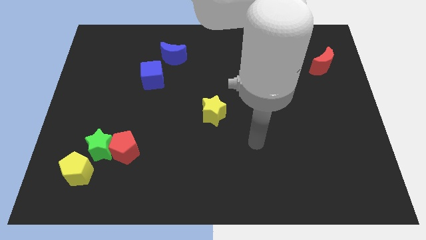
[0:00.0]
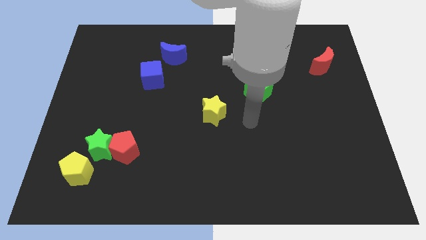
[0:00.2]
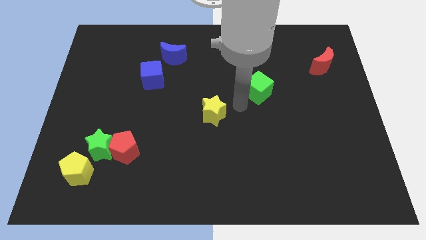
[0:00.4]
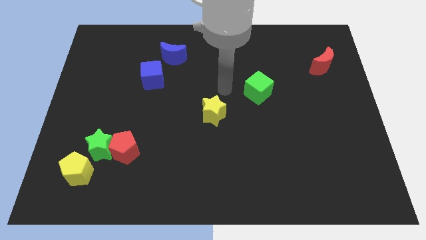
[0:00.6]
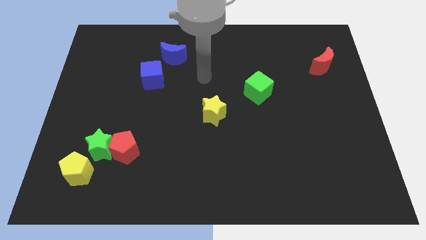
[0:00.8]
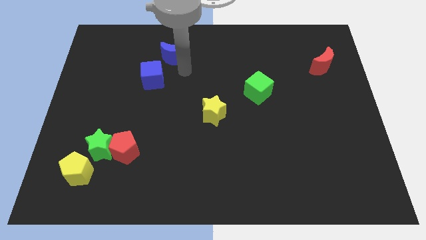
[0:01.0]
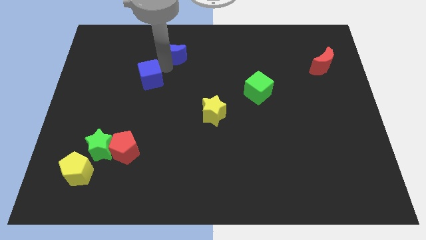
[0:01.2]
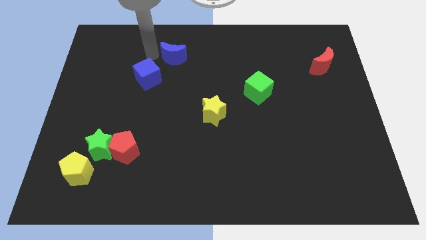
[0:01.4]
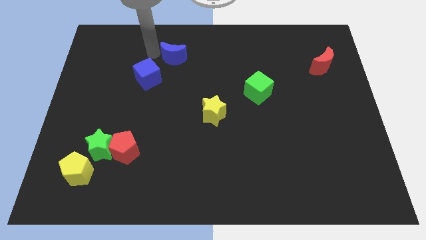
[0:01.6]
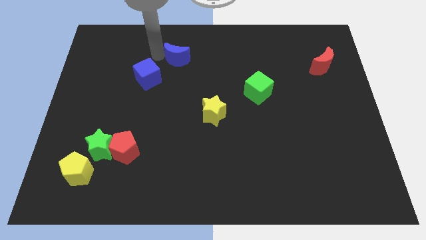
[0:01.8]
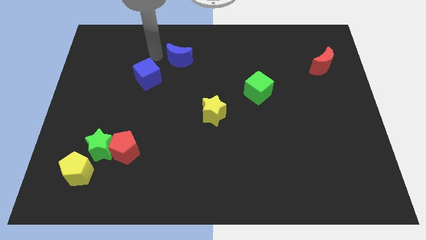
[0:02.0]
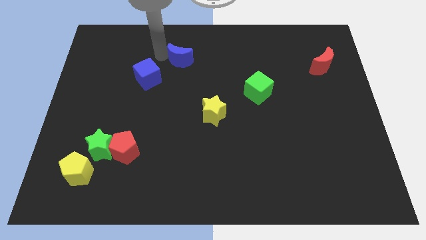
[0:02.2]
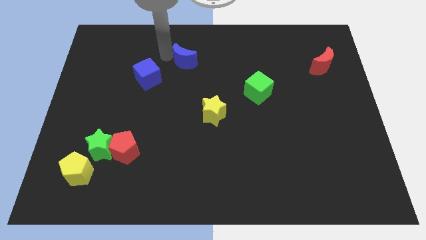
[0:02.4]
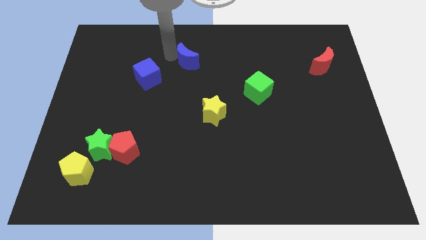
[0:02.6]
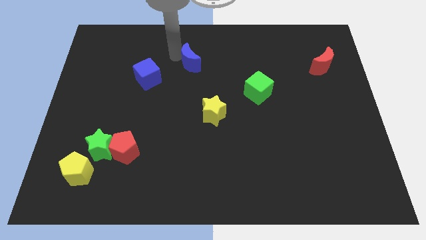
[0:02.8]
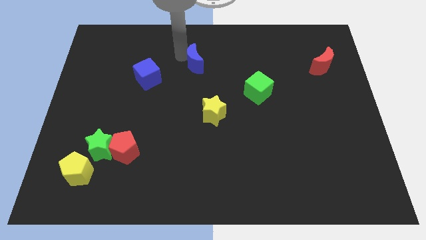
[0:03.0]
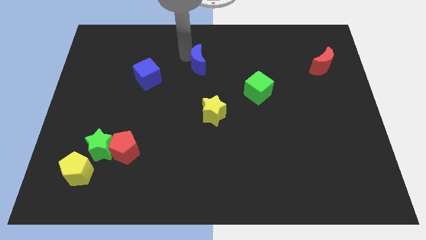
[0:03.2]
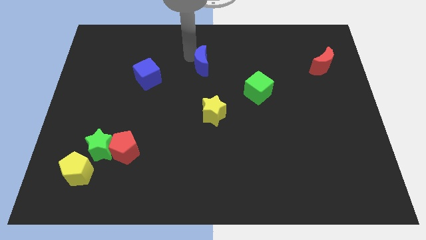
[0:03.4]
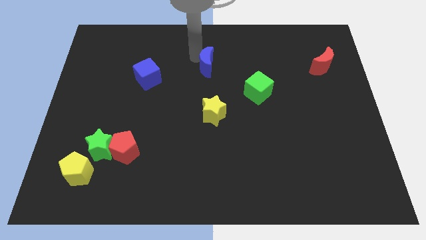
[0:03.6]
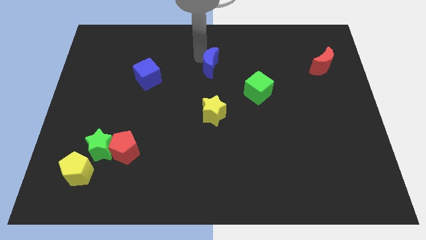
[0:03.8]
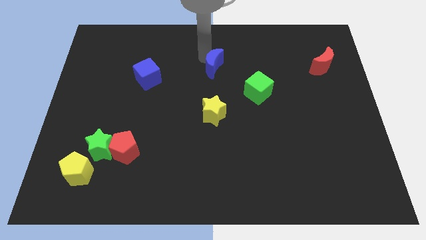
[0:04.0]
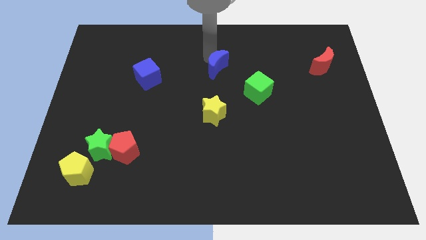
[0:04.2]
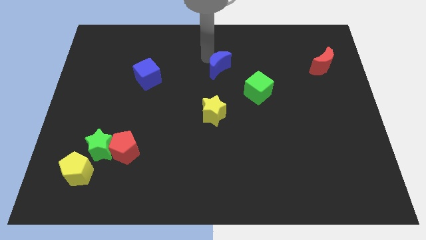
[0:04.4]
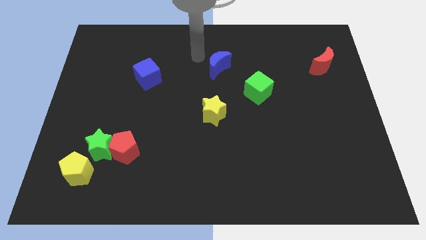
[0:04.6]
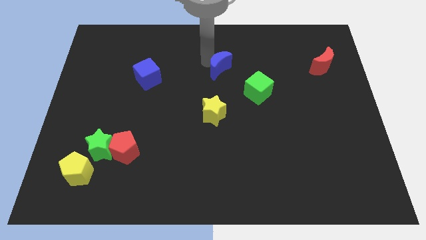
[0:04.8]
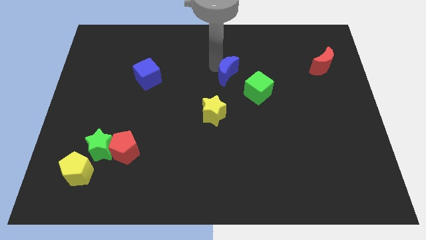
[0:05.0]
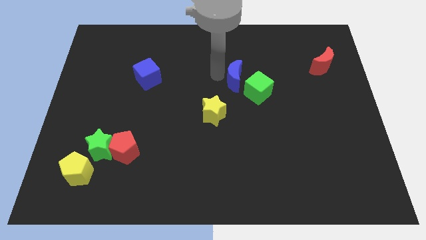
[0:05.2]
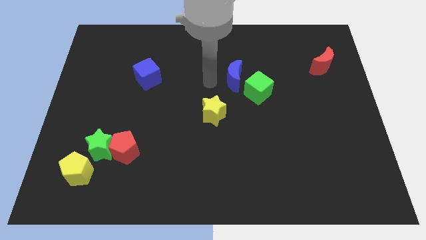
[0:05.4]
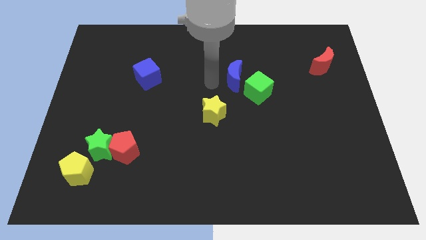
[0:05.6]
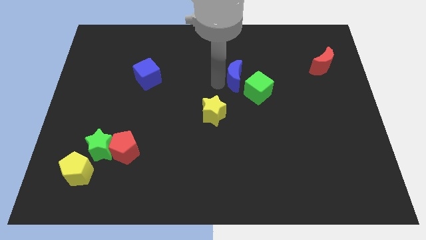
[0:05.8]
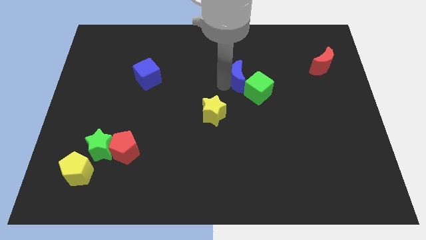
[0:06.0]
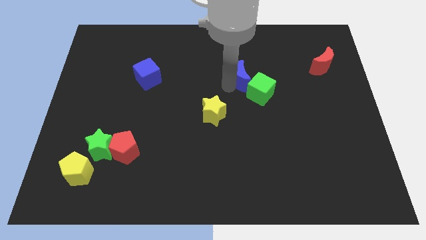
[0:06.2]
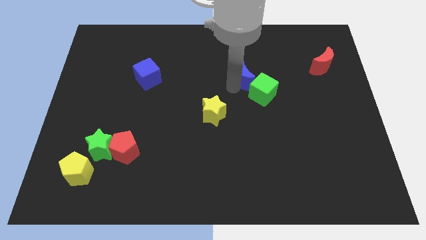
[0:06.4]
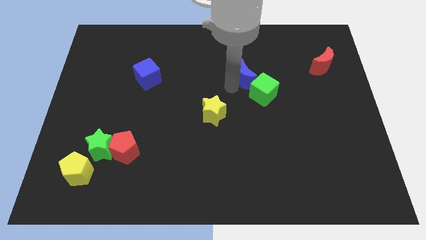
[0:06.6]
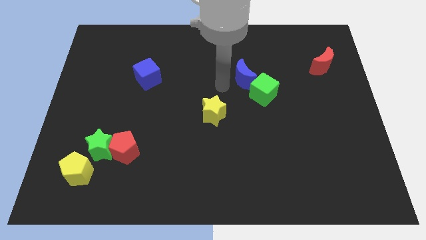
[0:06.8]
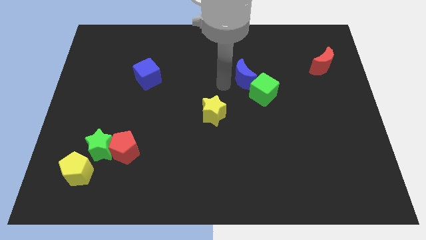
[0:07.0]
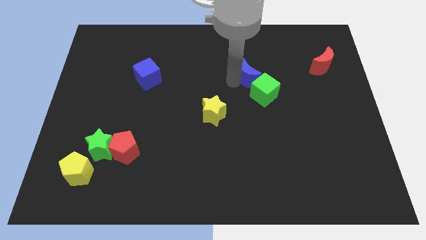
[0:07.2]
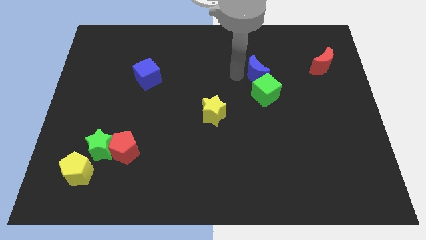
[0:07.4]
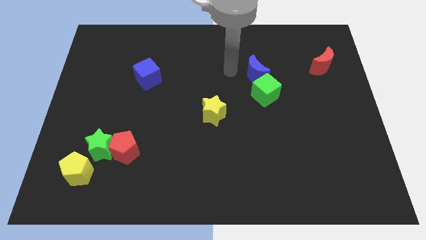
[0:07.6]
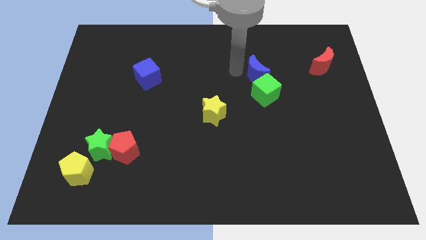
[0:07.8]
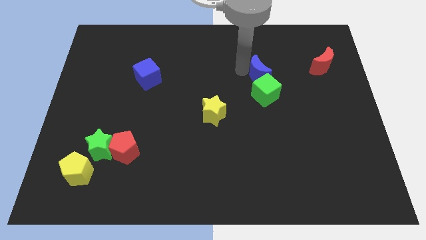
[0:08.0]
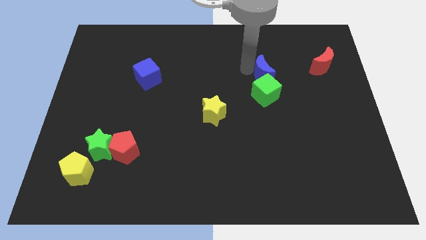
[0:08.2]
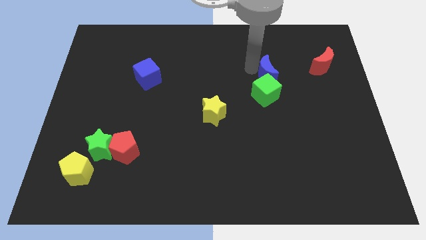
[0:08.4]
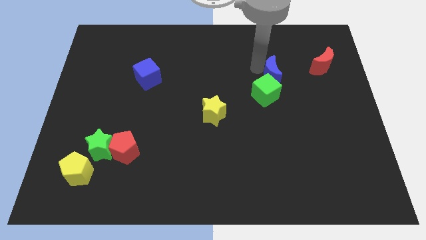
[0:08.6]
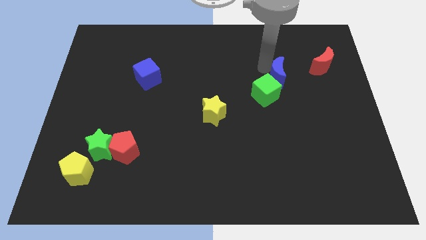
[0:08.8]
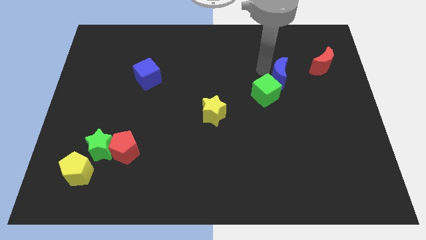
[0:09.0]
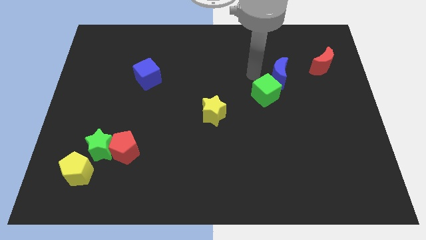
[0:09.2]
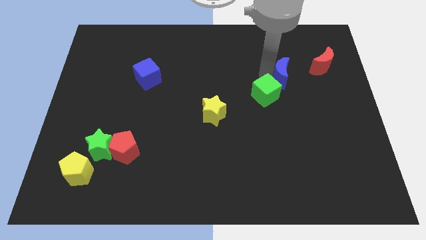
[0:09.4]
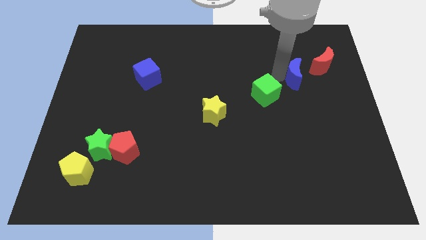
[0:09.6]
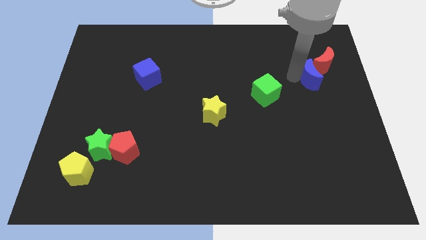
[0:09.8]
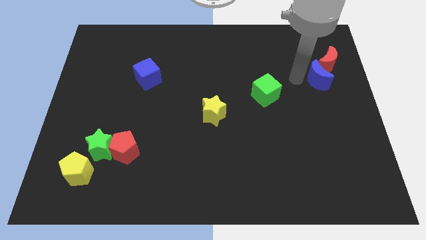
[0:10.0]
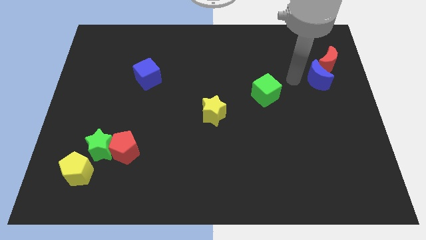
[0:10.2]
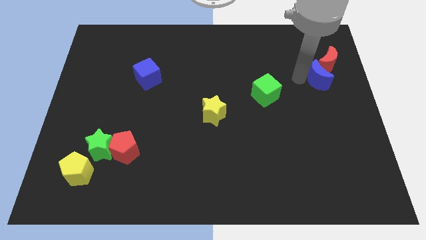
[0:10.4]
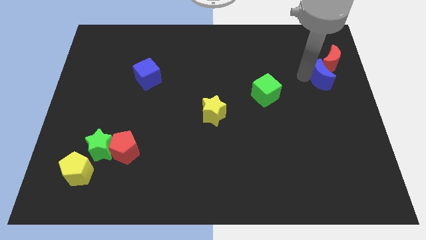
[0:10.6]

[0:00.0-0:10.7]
move the blue moon to the center right

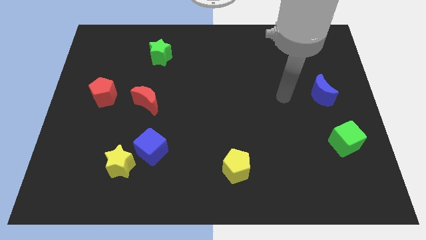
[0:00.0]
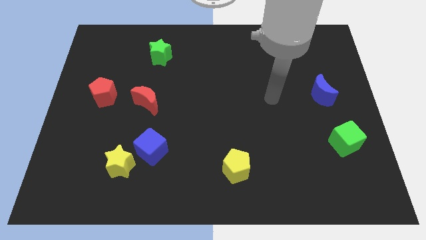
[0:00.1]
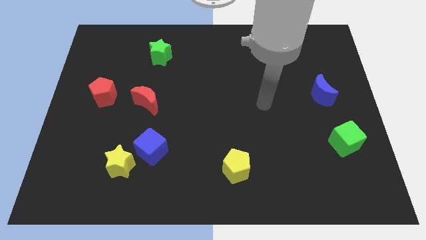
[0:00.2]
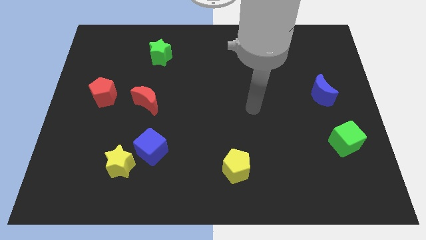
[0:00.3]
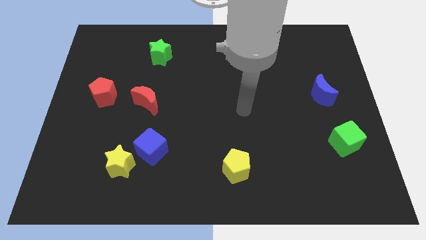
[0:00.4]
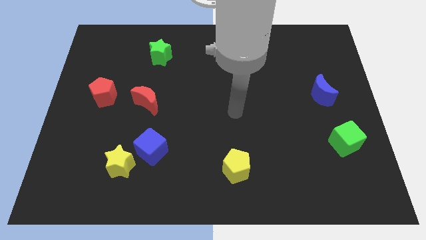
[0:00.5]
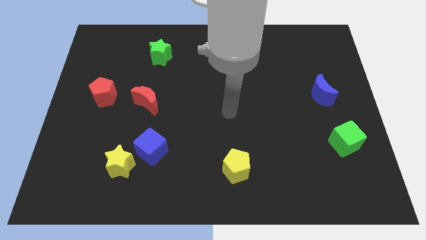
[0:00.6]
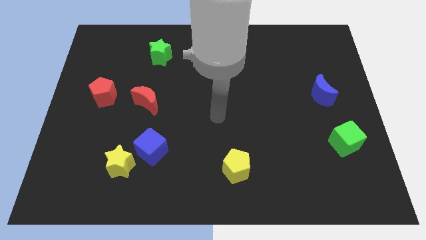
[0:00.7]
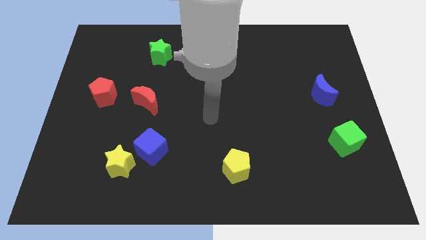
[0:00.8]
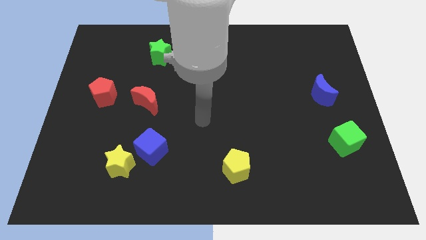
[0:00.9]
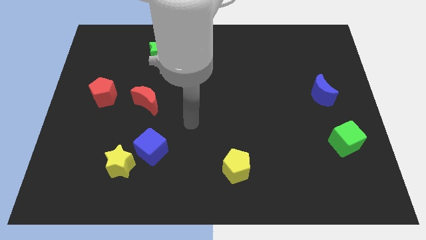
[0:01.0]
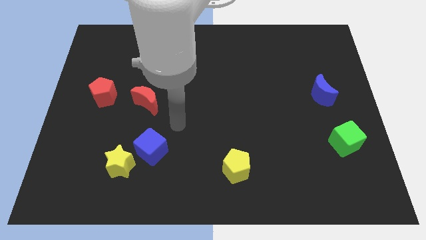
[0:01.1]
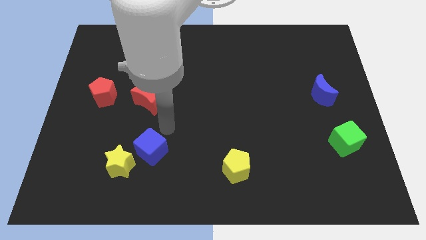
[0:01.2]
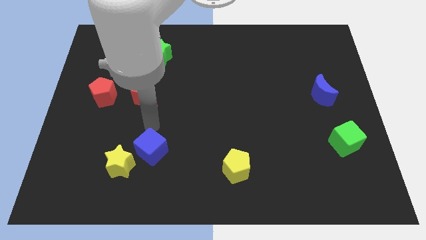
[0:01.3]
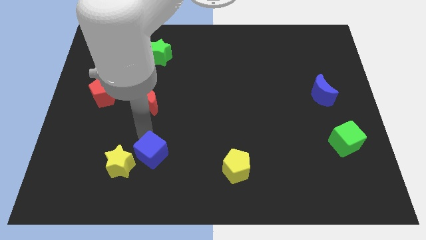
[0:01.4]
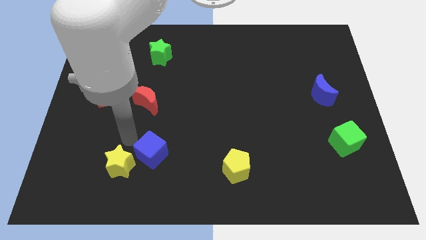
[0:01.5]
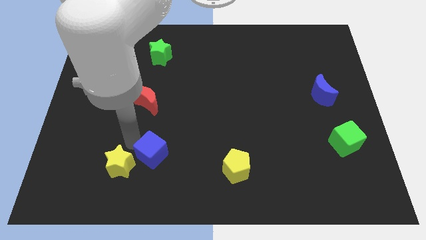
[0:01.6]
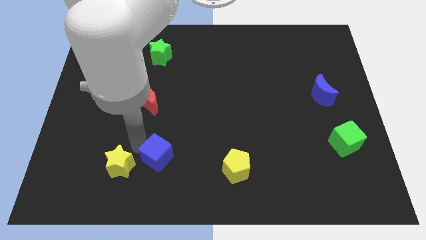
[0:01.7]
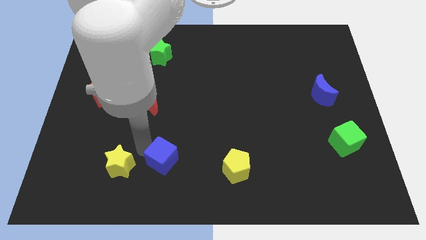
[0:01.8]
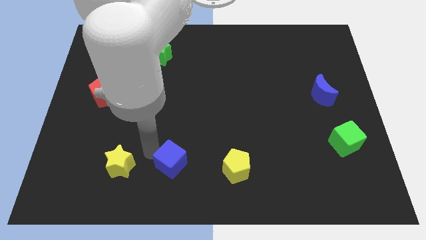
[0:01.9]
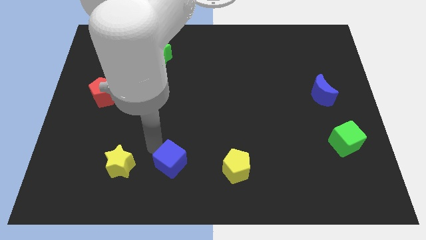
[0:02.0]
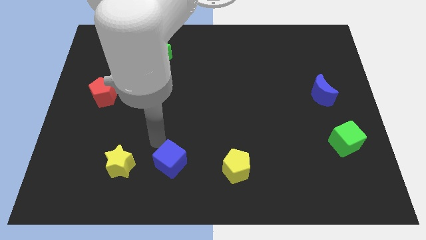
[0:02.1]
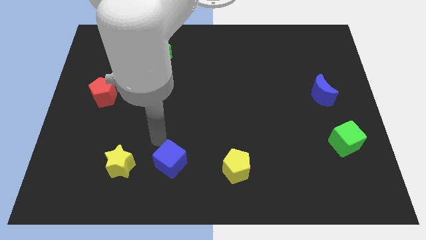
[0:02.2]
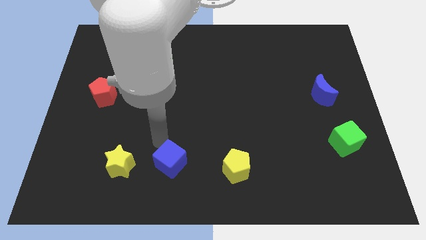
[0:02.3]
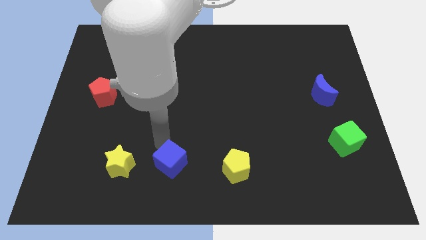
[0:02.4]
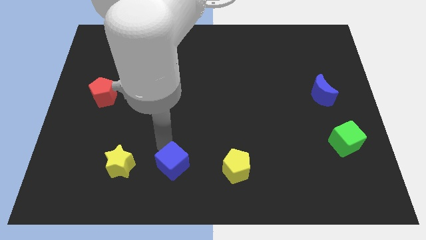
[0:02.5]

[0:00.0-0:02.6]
push the blue cube to the bottom side
